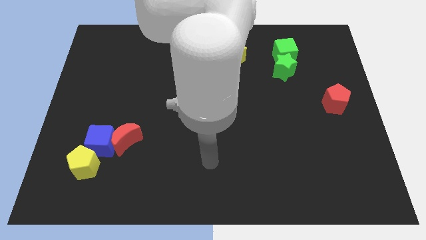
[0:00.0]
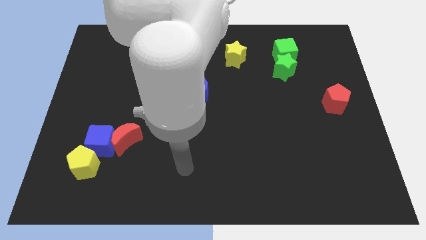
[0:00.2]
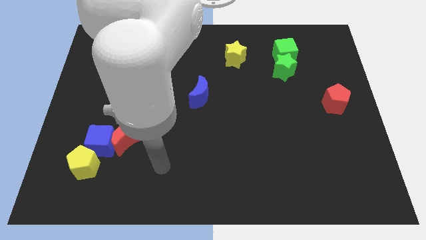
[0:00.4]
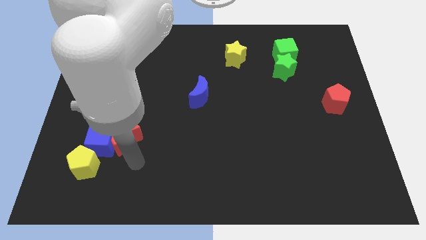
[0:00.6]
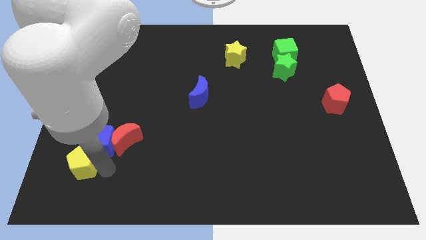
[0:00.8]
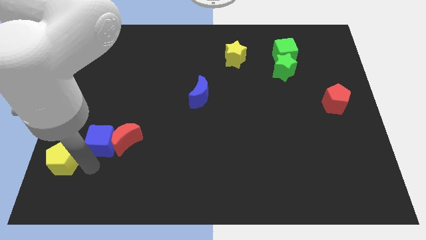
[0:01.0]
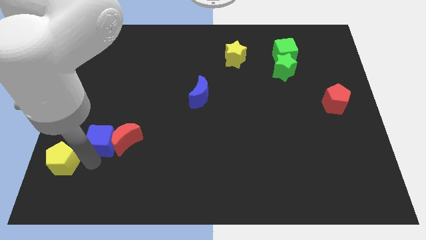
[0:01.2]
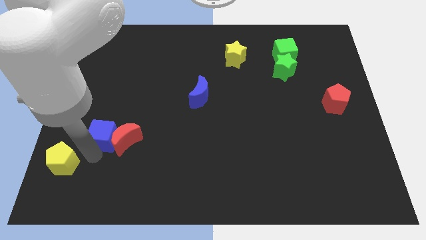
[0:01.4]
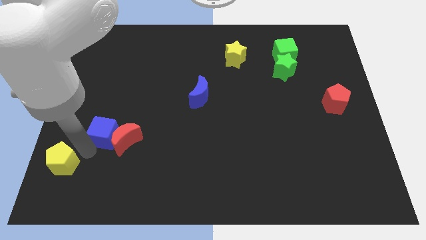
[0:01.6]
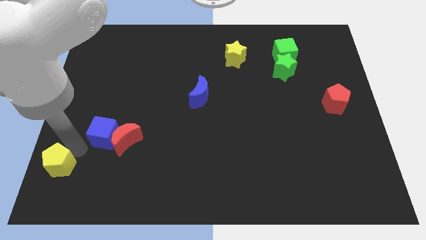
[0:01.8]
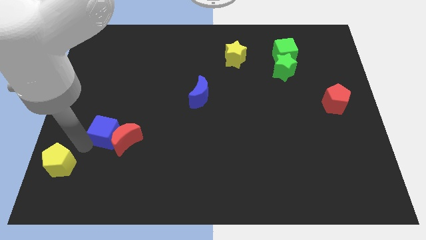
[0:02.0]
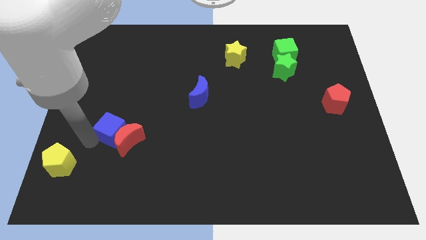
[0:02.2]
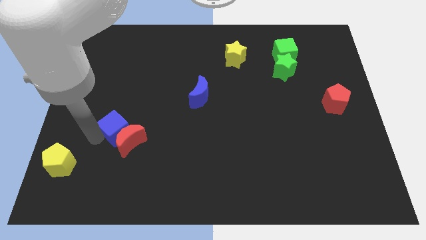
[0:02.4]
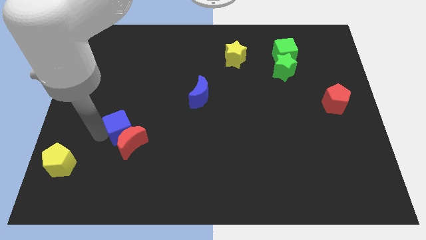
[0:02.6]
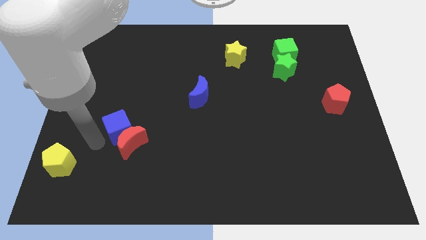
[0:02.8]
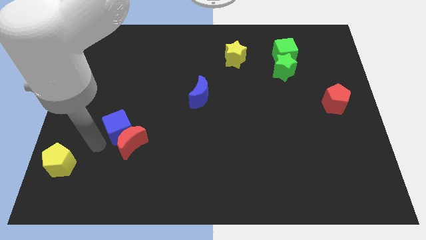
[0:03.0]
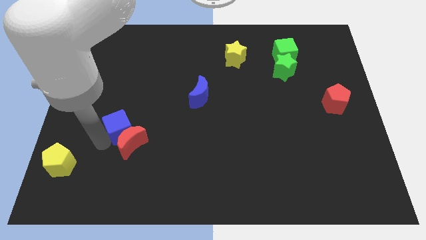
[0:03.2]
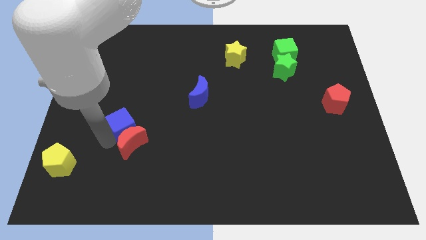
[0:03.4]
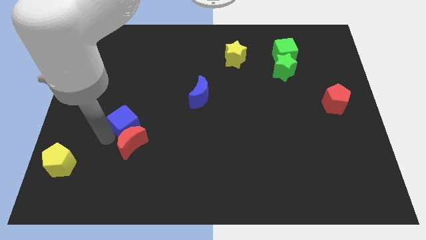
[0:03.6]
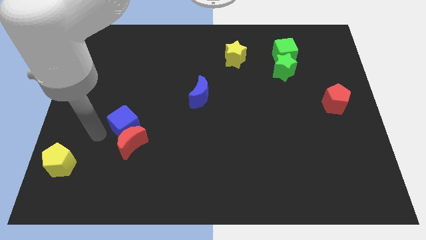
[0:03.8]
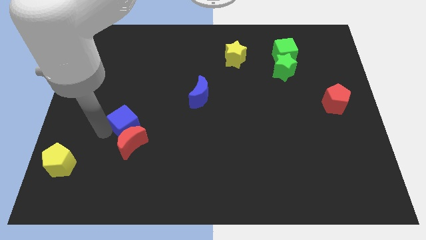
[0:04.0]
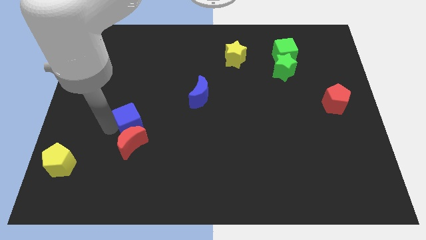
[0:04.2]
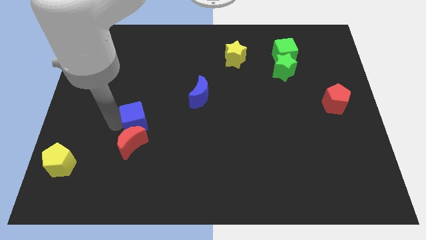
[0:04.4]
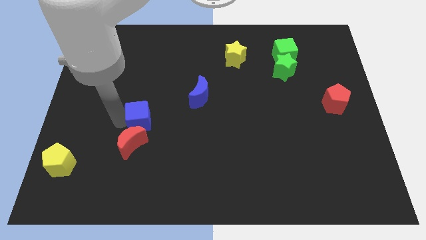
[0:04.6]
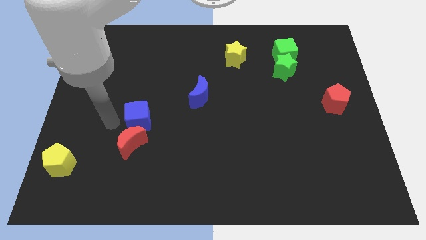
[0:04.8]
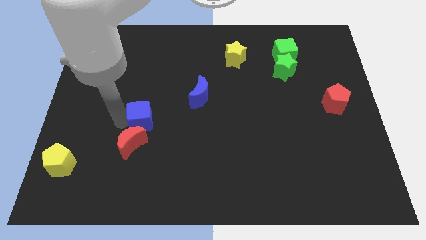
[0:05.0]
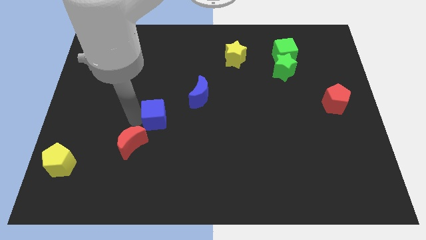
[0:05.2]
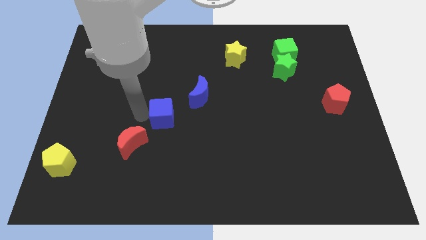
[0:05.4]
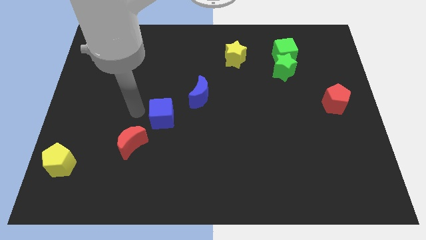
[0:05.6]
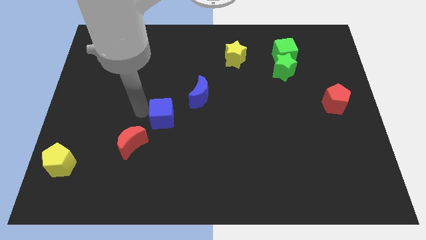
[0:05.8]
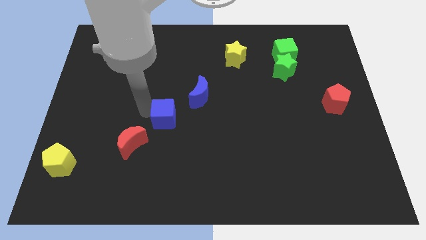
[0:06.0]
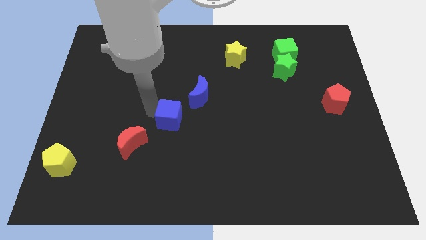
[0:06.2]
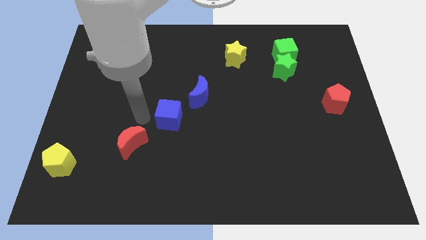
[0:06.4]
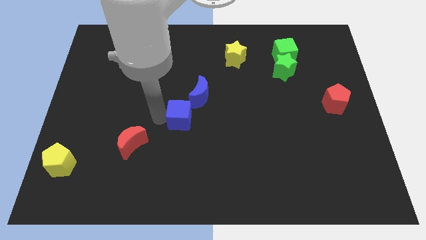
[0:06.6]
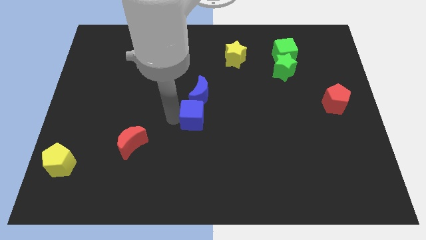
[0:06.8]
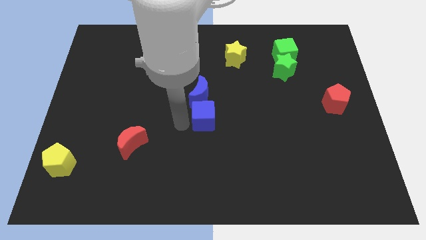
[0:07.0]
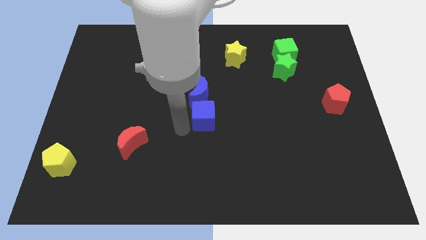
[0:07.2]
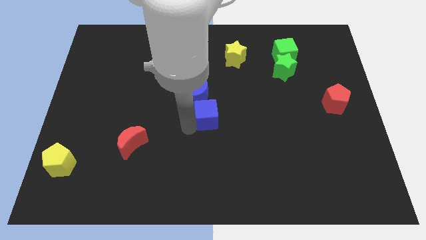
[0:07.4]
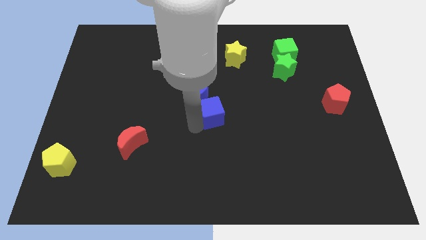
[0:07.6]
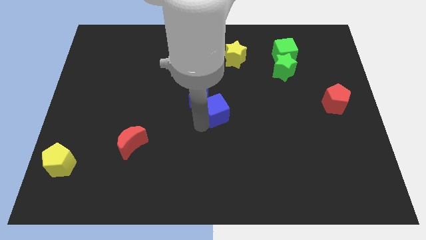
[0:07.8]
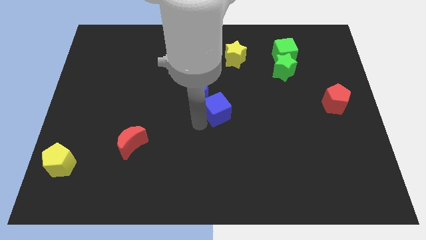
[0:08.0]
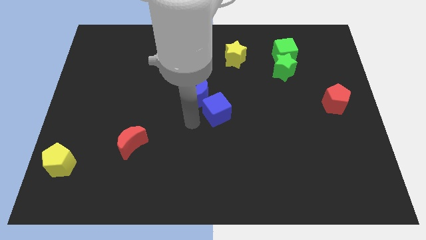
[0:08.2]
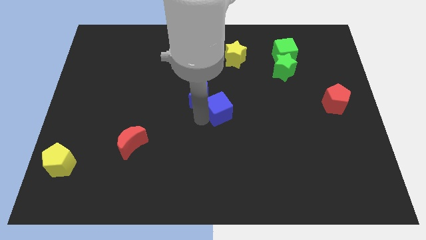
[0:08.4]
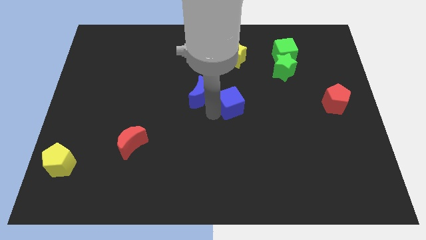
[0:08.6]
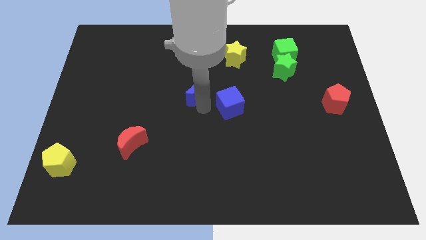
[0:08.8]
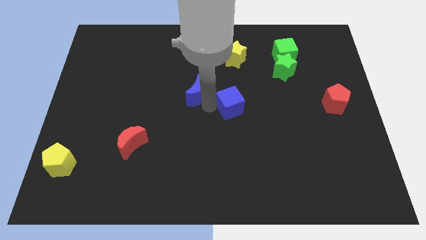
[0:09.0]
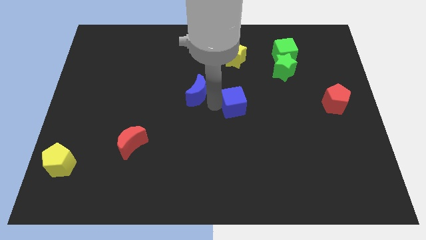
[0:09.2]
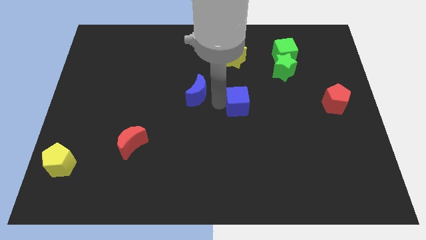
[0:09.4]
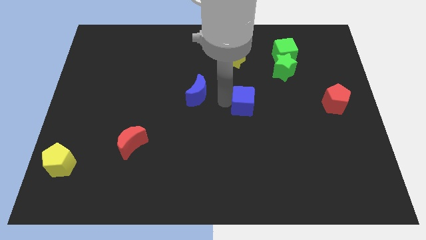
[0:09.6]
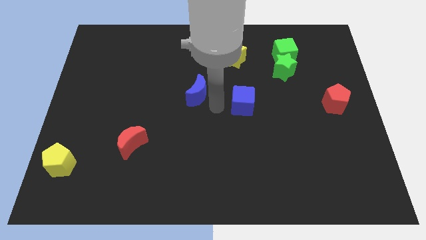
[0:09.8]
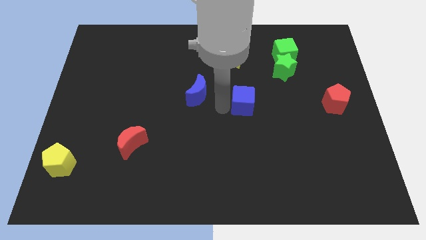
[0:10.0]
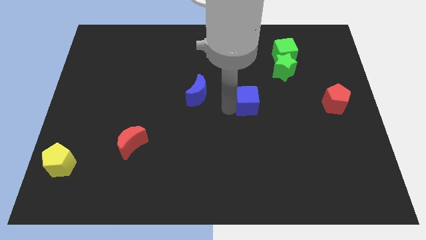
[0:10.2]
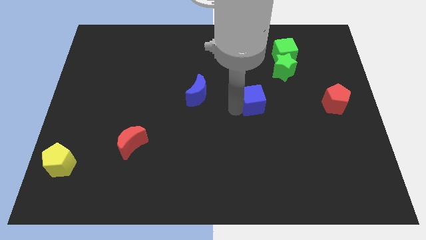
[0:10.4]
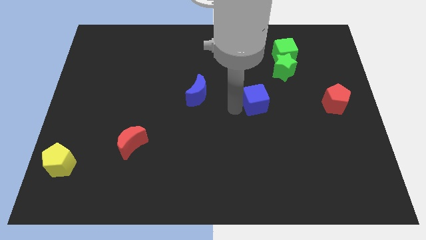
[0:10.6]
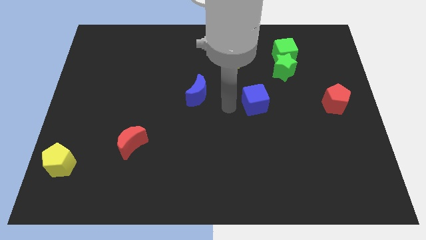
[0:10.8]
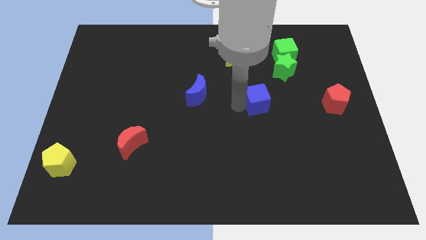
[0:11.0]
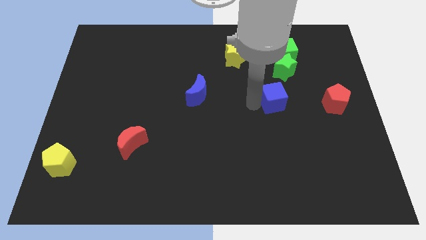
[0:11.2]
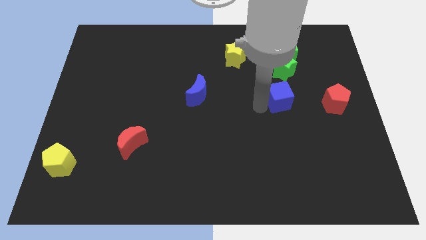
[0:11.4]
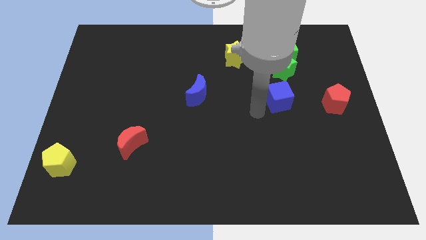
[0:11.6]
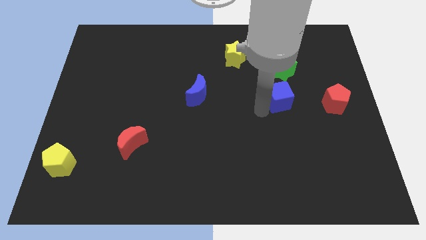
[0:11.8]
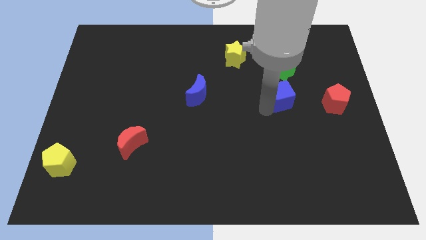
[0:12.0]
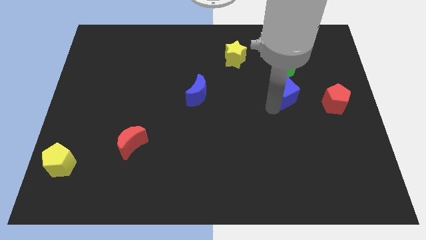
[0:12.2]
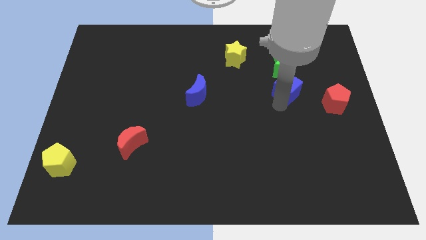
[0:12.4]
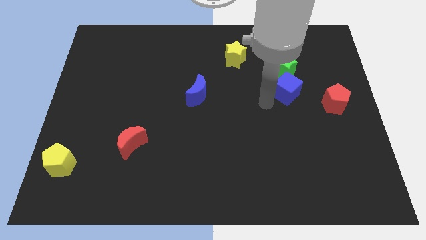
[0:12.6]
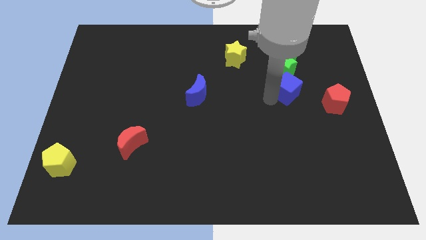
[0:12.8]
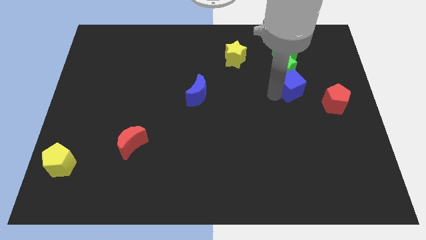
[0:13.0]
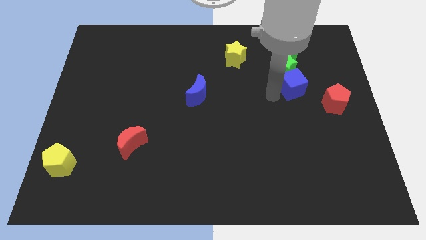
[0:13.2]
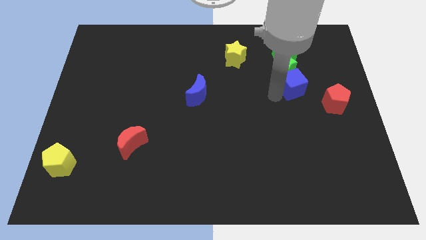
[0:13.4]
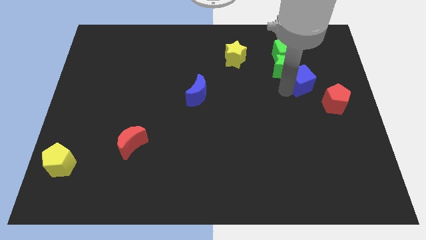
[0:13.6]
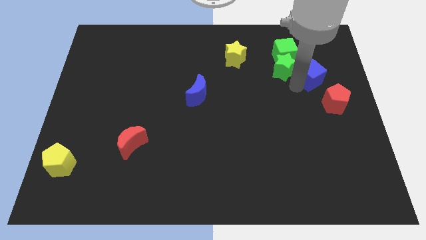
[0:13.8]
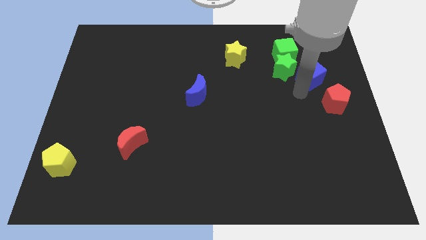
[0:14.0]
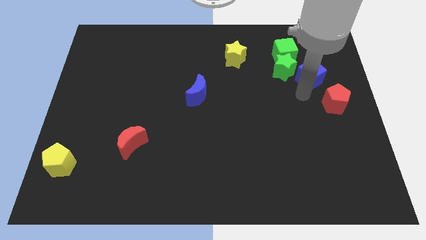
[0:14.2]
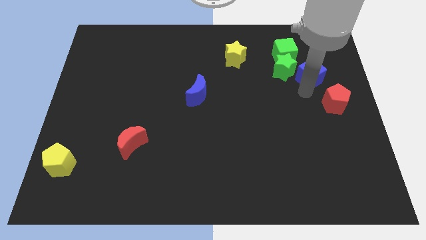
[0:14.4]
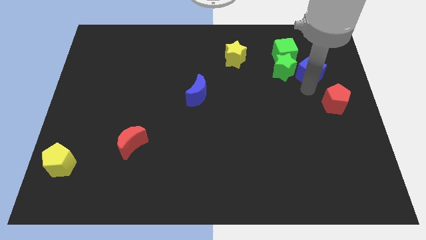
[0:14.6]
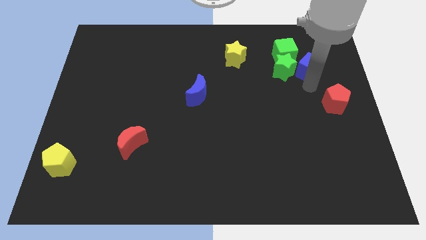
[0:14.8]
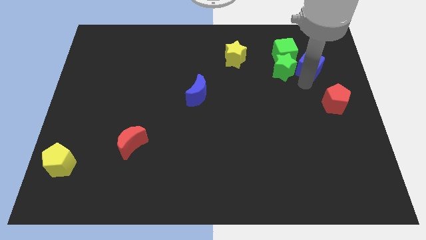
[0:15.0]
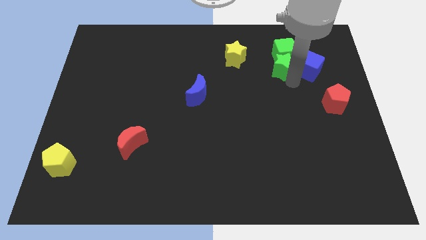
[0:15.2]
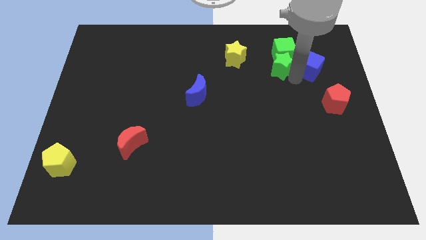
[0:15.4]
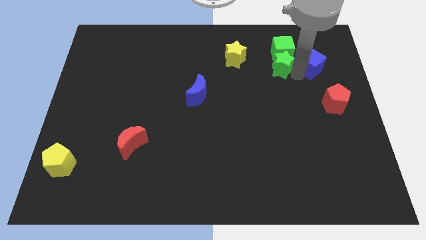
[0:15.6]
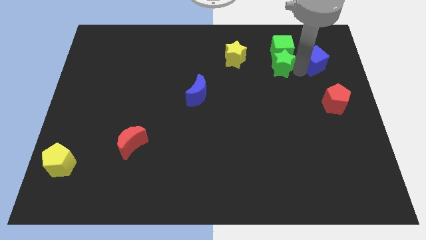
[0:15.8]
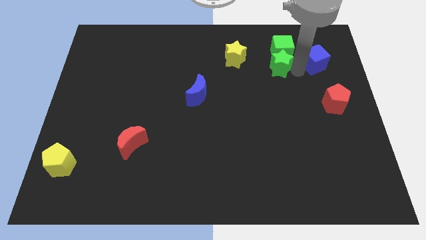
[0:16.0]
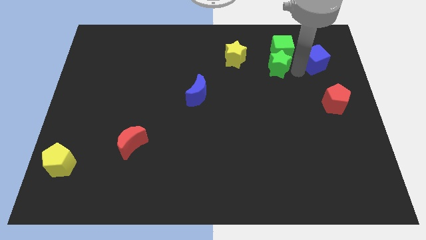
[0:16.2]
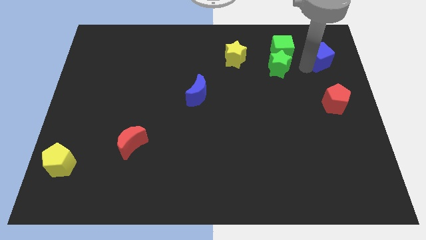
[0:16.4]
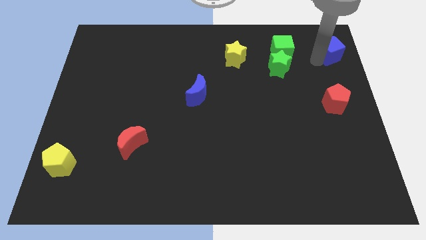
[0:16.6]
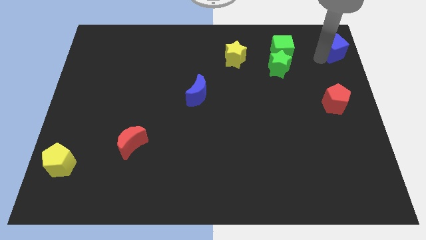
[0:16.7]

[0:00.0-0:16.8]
put the blue cube to the top right
